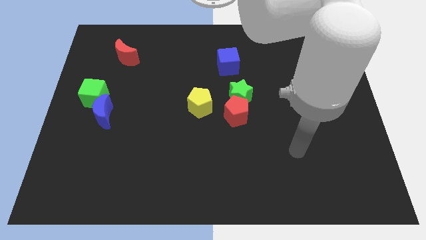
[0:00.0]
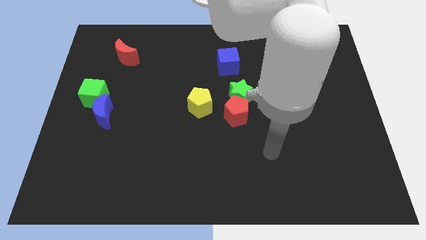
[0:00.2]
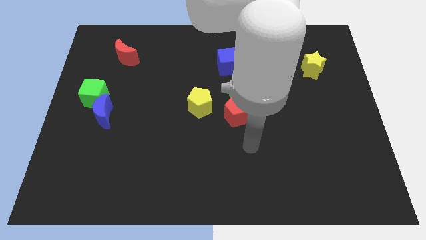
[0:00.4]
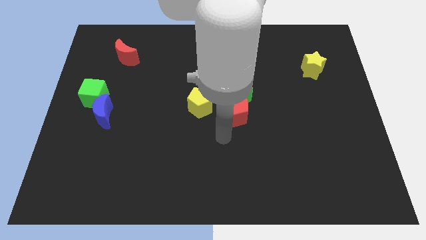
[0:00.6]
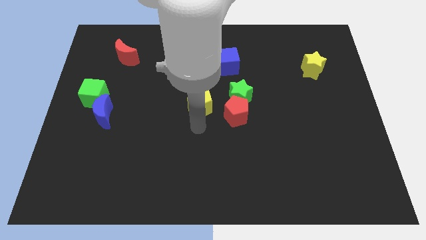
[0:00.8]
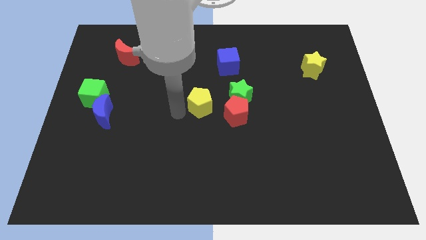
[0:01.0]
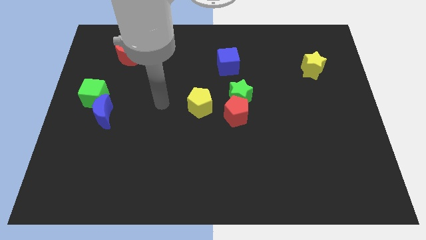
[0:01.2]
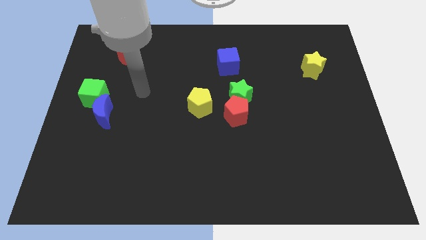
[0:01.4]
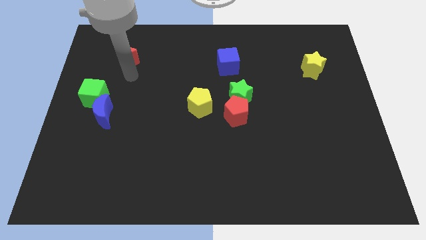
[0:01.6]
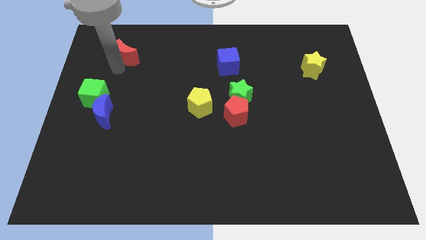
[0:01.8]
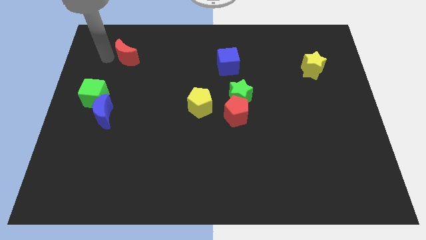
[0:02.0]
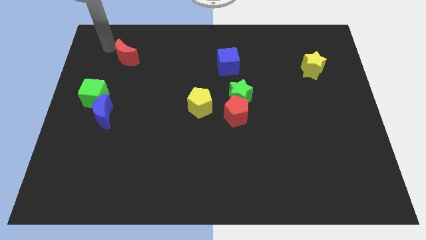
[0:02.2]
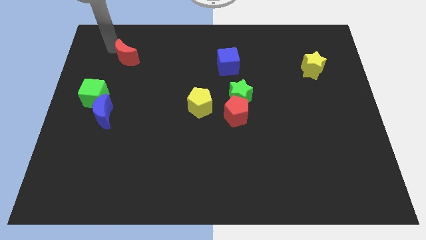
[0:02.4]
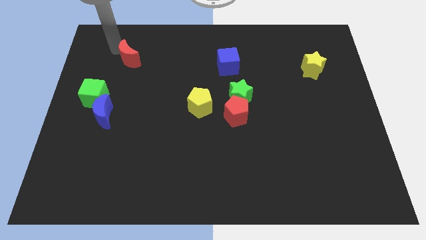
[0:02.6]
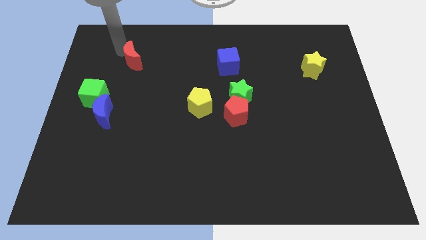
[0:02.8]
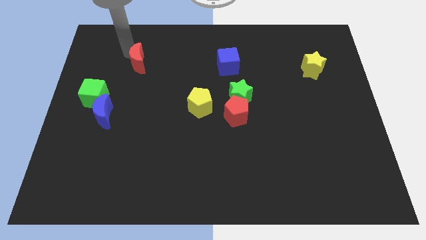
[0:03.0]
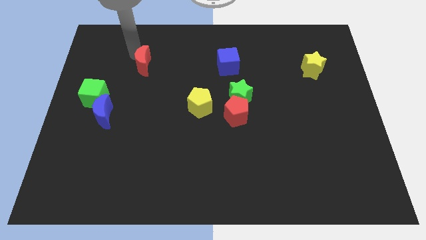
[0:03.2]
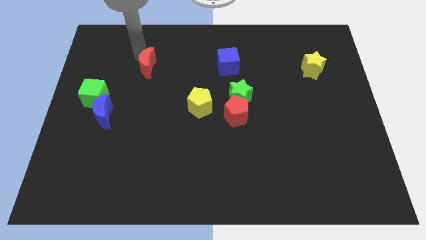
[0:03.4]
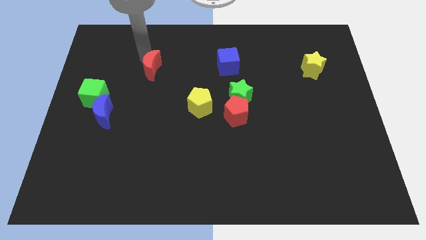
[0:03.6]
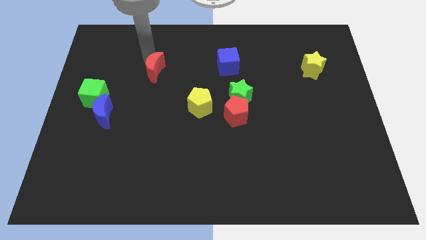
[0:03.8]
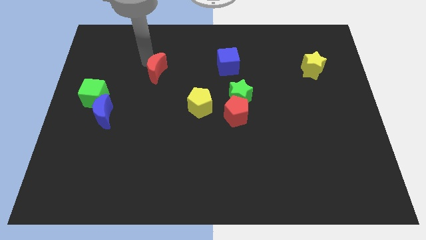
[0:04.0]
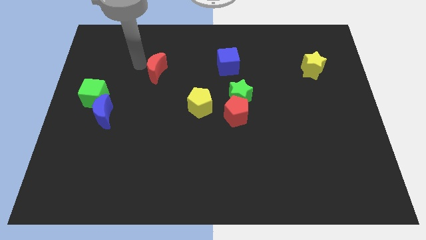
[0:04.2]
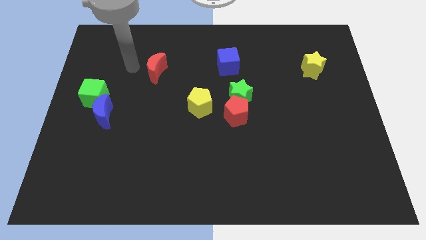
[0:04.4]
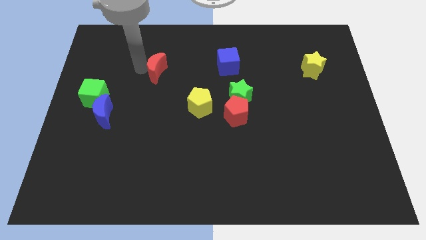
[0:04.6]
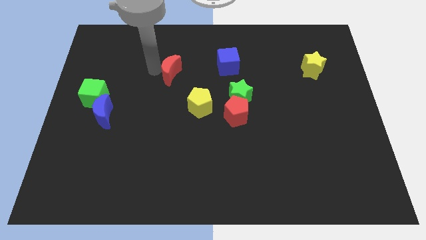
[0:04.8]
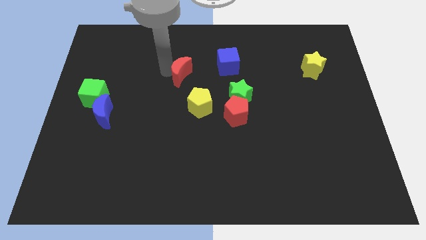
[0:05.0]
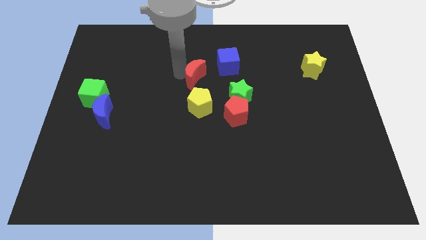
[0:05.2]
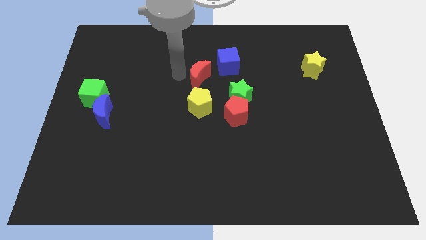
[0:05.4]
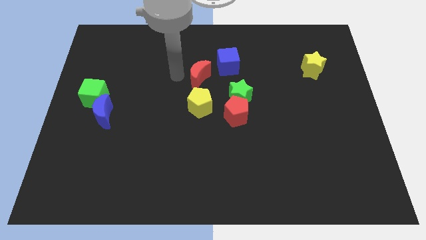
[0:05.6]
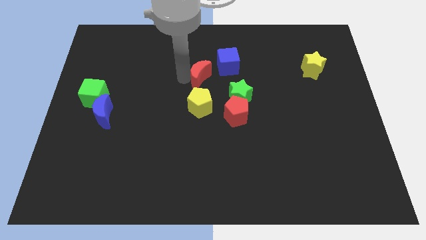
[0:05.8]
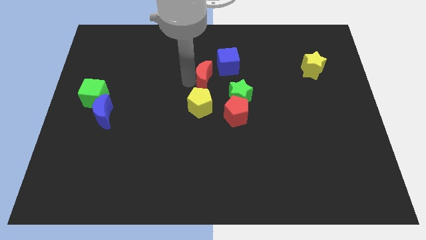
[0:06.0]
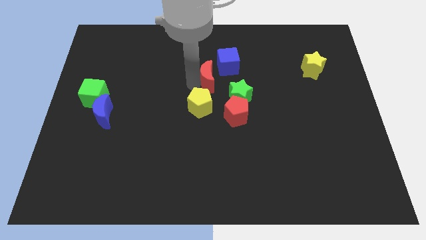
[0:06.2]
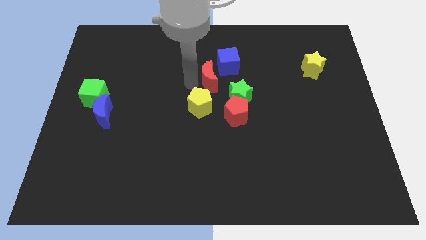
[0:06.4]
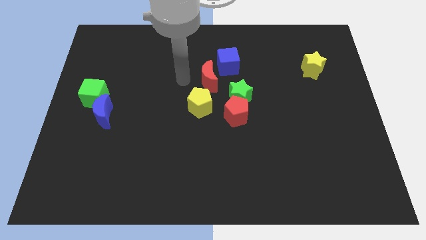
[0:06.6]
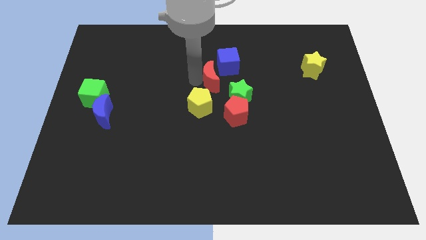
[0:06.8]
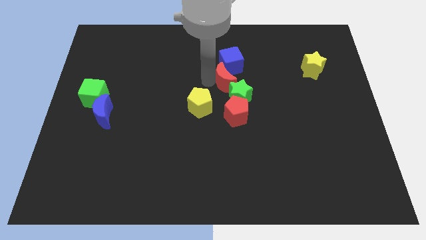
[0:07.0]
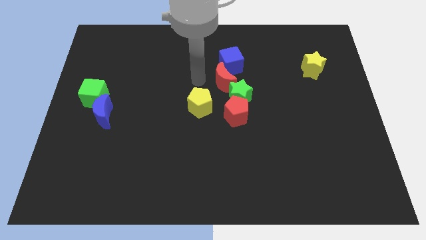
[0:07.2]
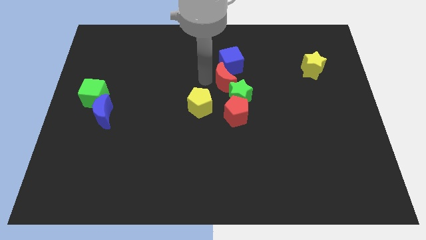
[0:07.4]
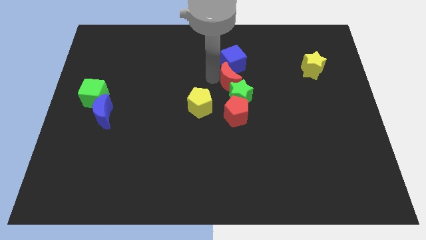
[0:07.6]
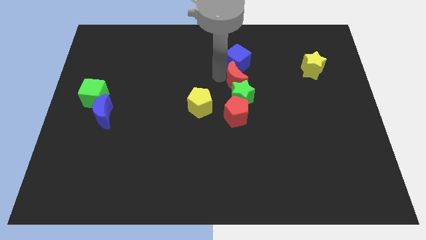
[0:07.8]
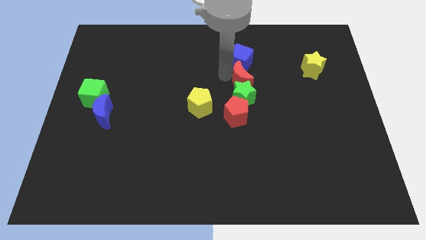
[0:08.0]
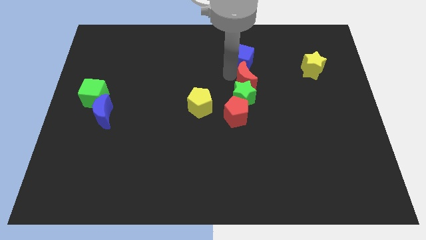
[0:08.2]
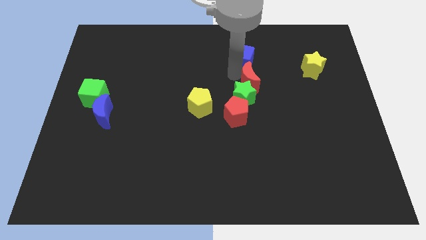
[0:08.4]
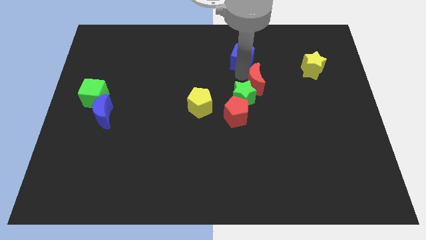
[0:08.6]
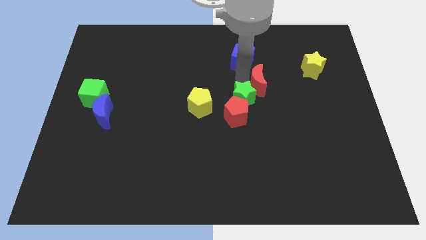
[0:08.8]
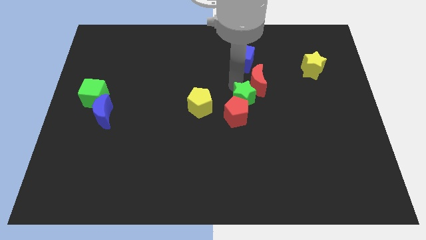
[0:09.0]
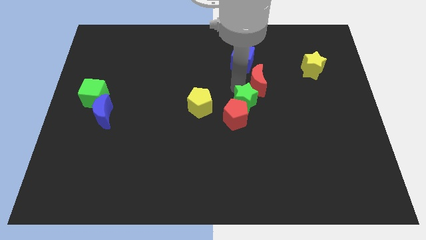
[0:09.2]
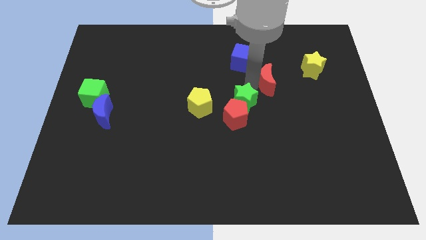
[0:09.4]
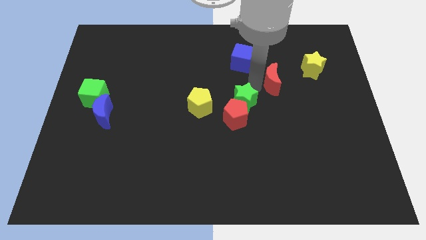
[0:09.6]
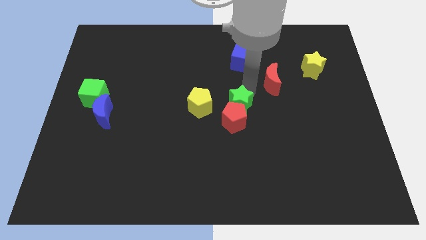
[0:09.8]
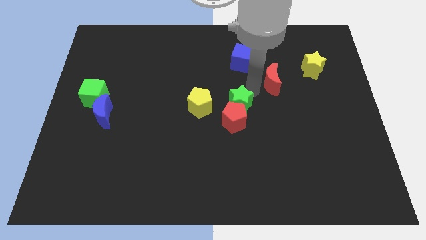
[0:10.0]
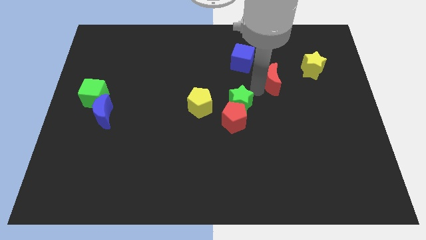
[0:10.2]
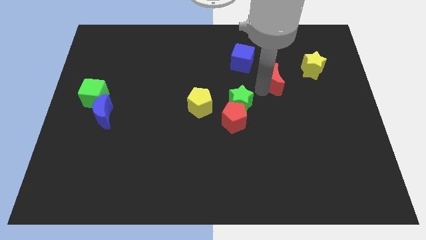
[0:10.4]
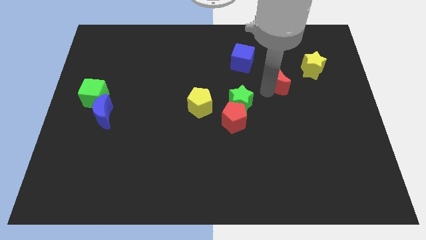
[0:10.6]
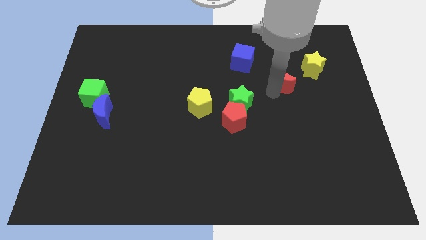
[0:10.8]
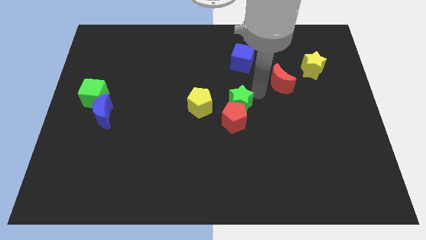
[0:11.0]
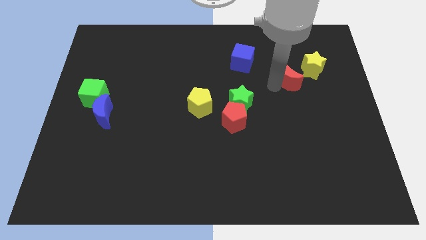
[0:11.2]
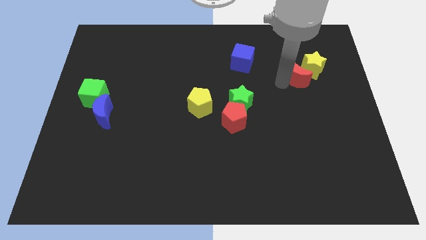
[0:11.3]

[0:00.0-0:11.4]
put the red moon next to the yellow star

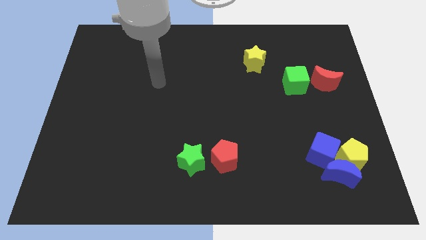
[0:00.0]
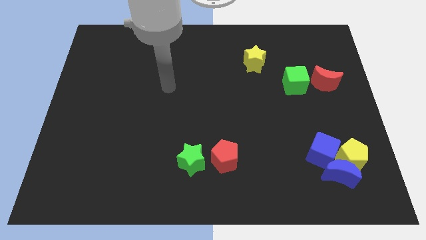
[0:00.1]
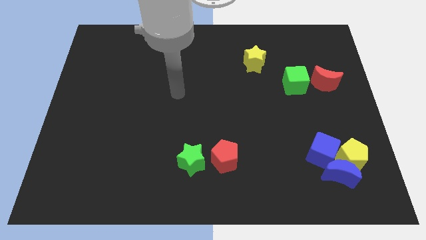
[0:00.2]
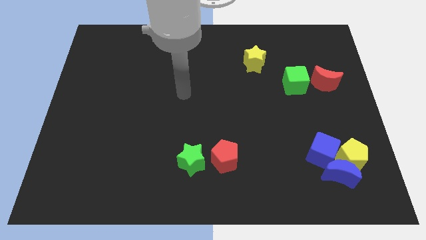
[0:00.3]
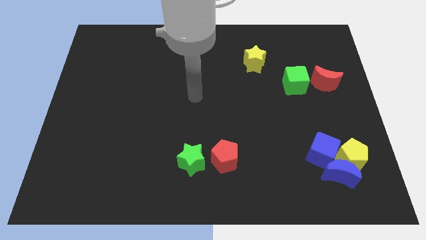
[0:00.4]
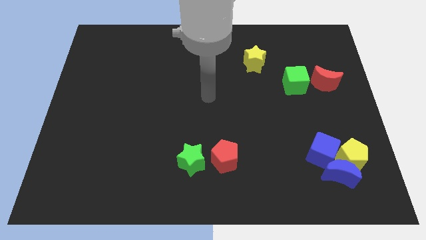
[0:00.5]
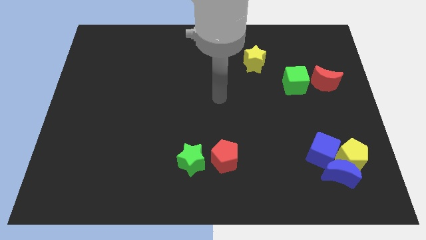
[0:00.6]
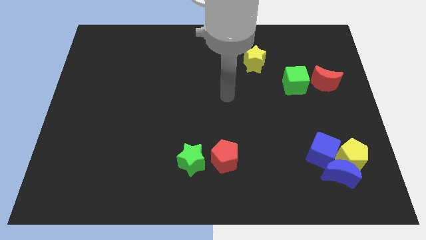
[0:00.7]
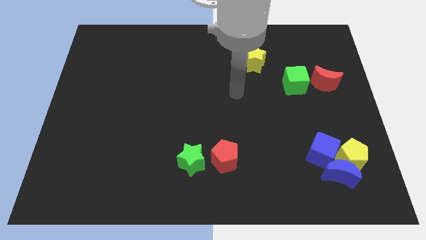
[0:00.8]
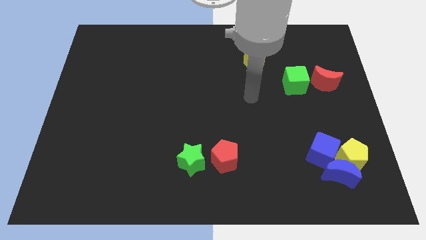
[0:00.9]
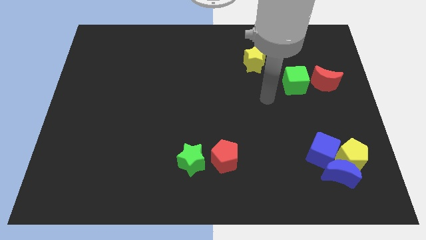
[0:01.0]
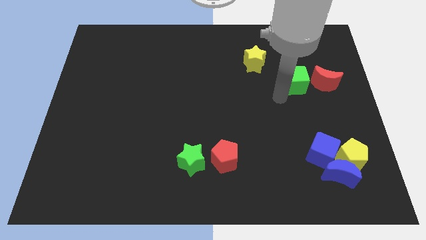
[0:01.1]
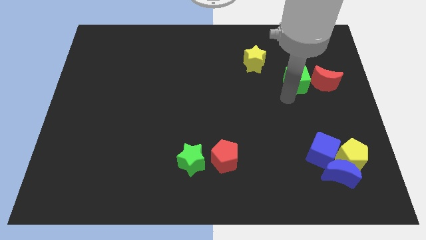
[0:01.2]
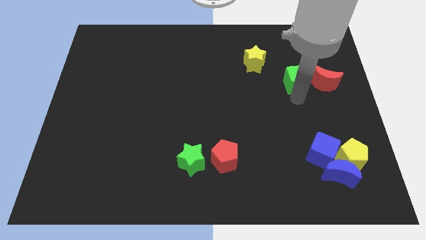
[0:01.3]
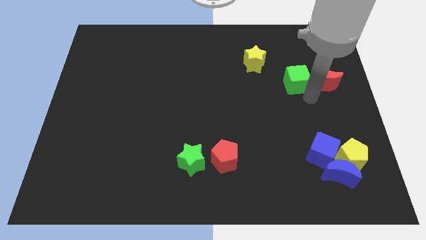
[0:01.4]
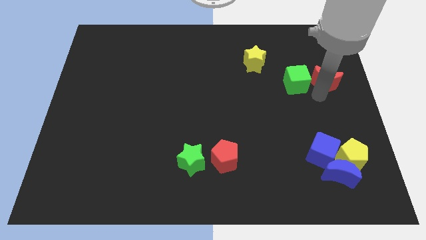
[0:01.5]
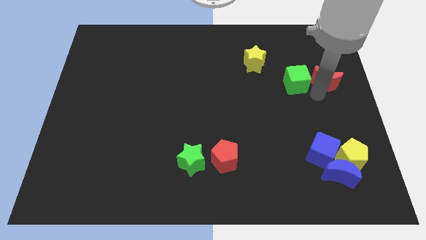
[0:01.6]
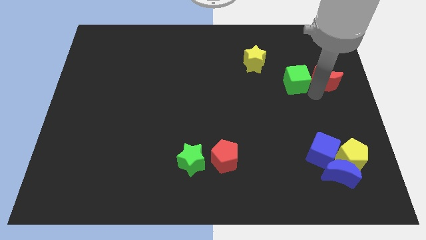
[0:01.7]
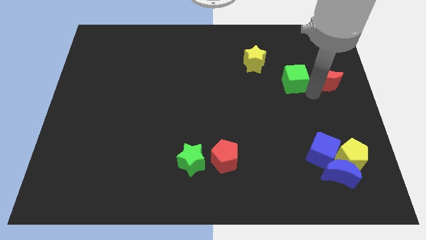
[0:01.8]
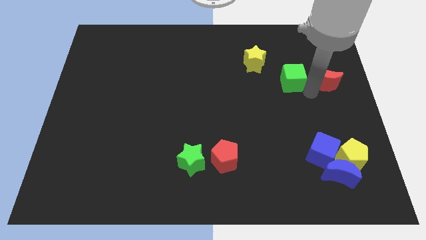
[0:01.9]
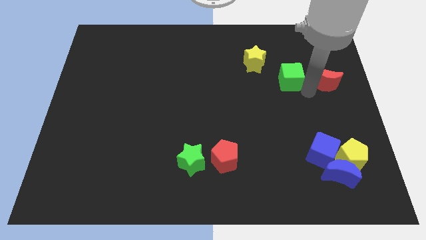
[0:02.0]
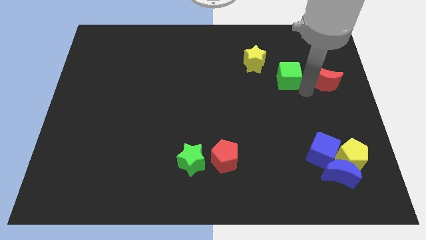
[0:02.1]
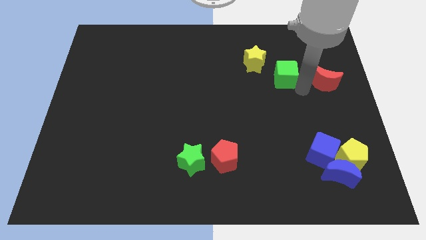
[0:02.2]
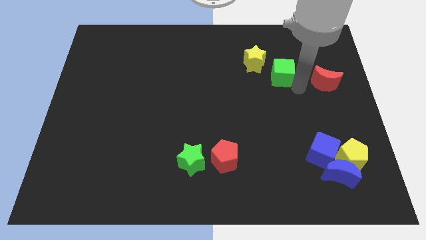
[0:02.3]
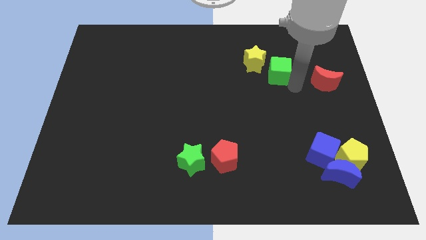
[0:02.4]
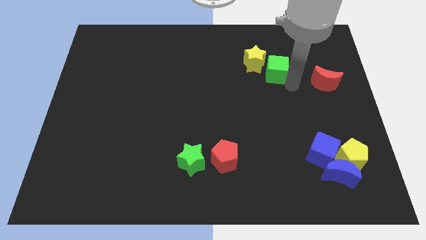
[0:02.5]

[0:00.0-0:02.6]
move the green cube towards the yellow star
